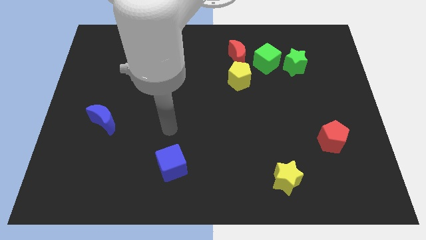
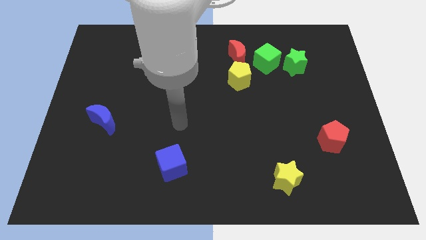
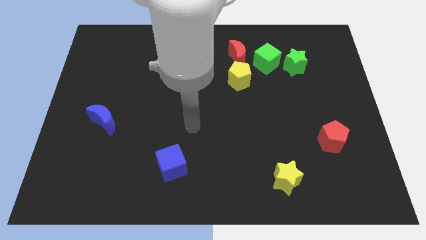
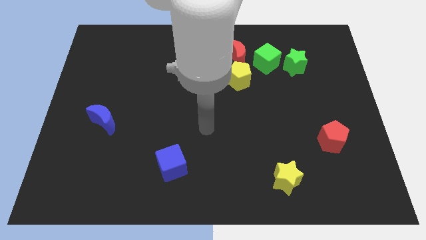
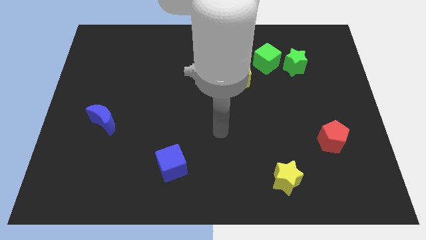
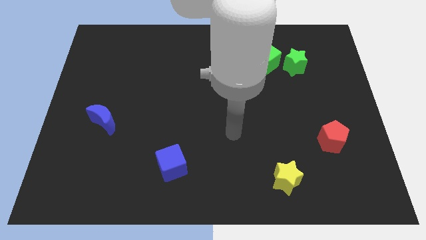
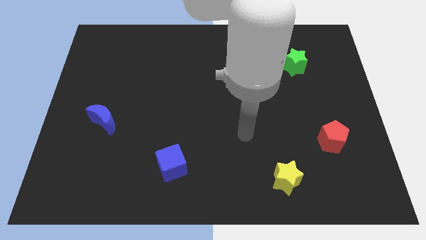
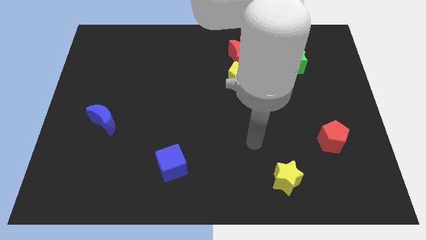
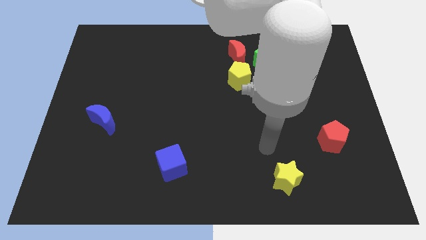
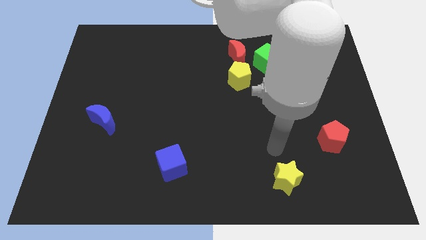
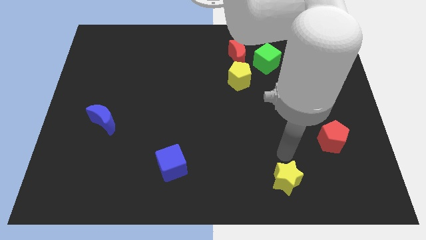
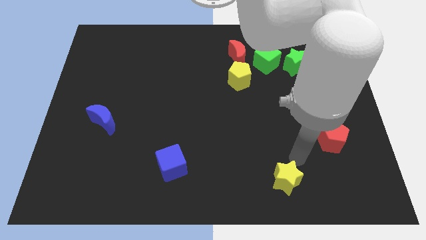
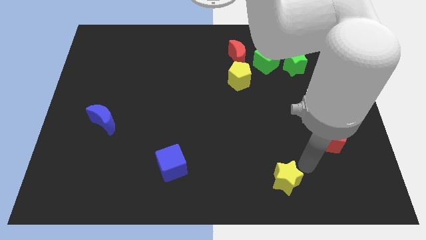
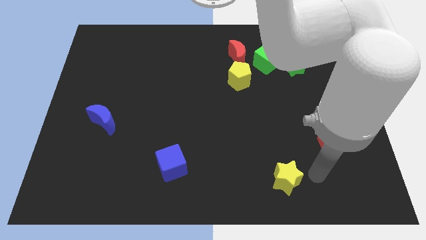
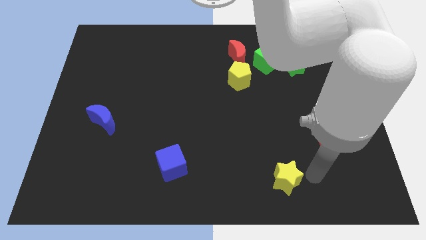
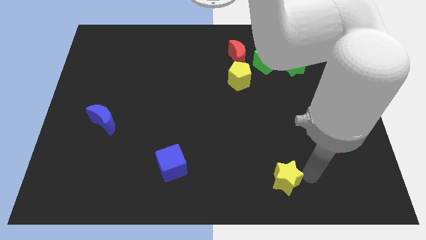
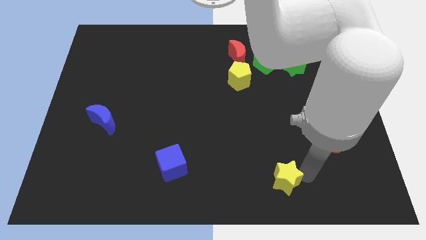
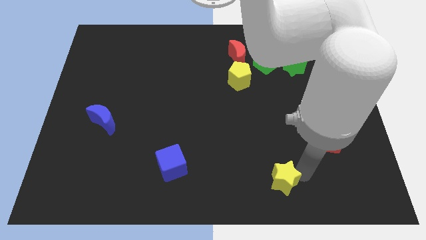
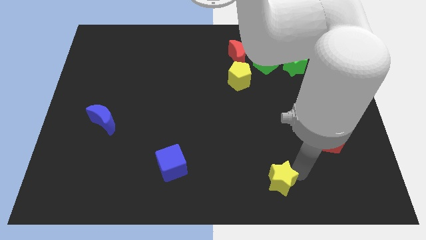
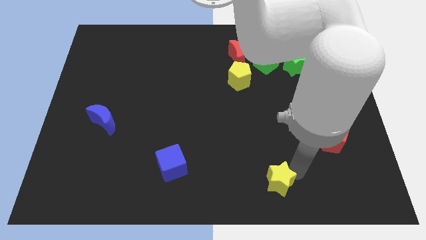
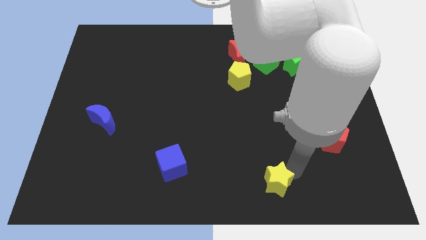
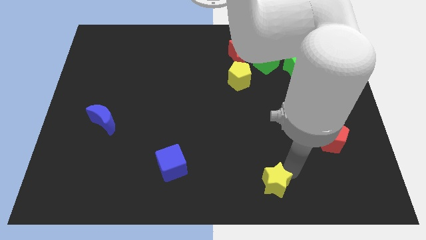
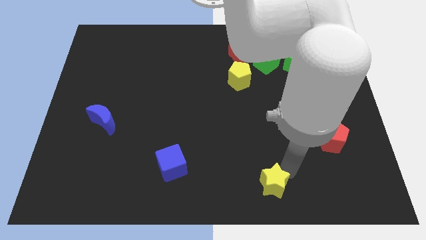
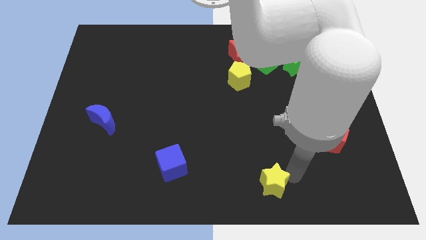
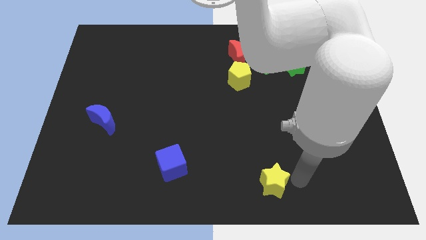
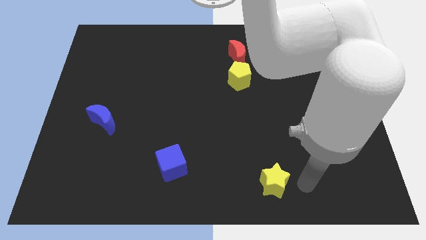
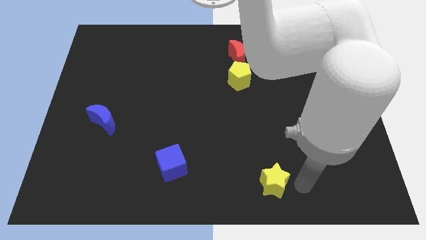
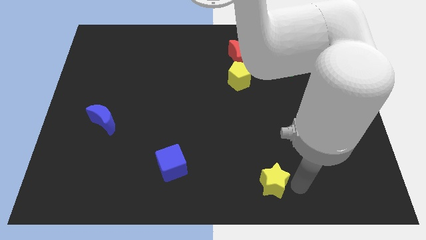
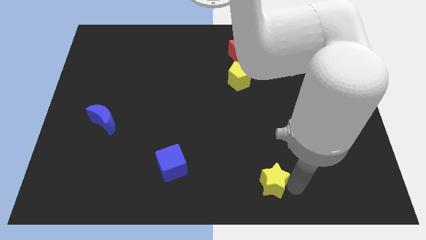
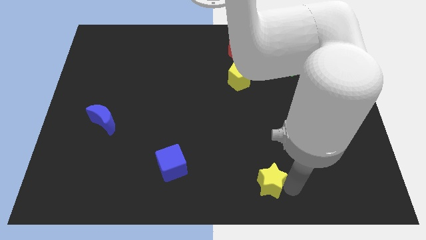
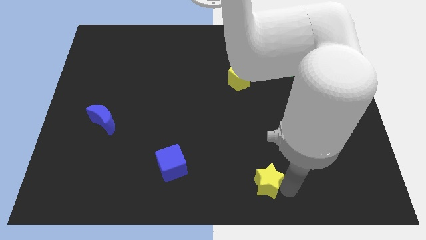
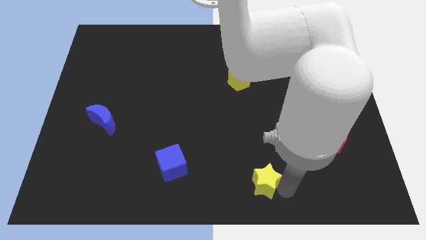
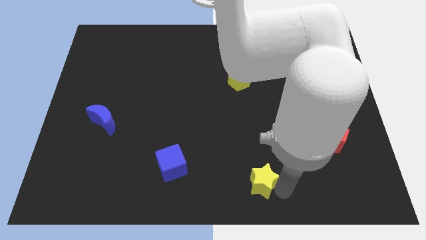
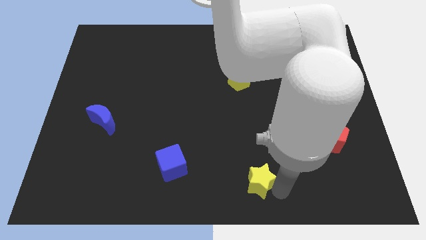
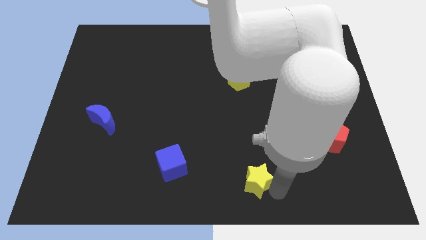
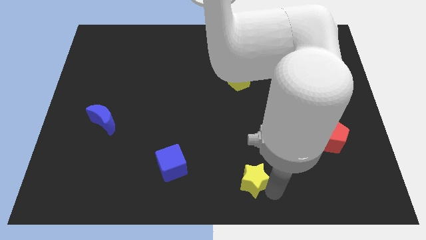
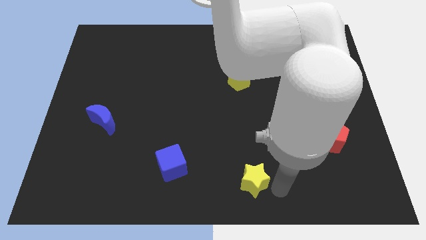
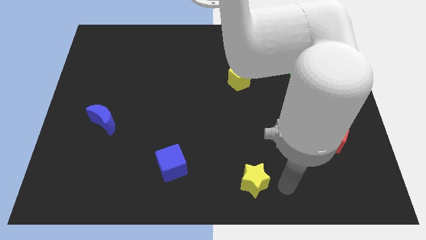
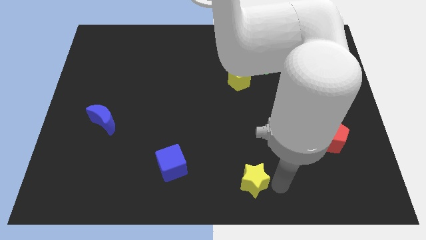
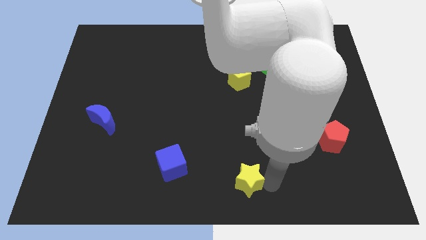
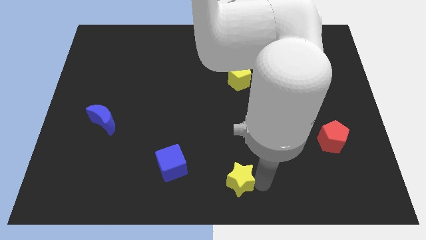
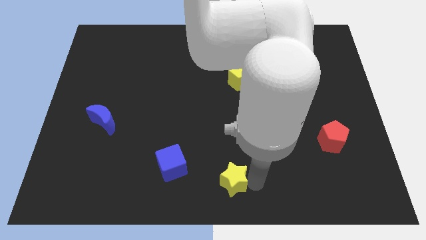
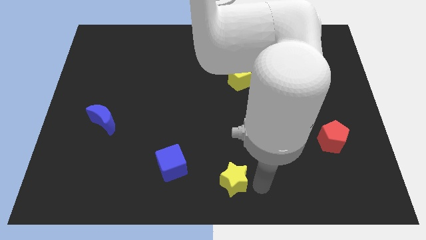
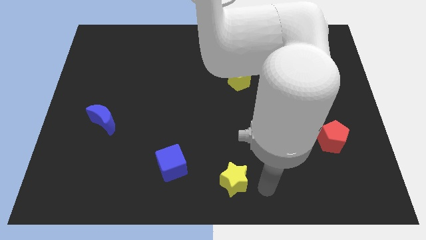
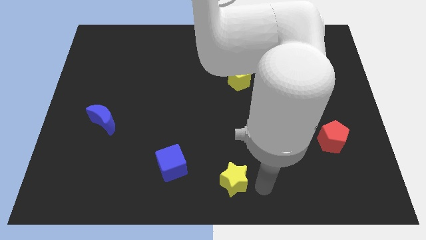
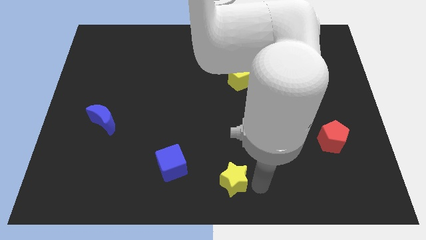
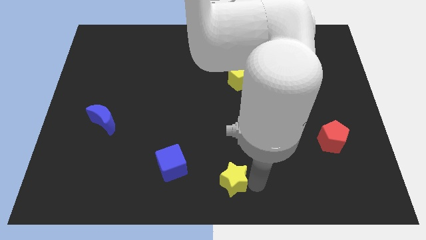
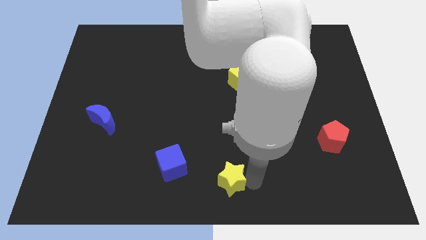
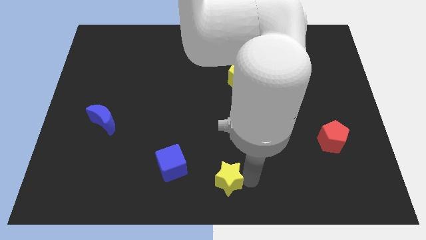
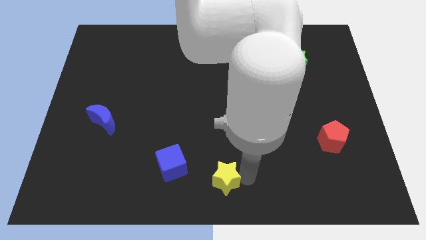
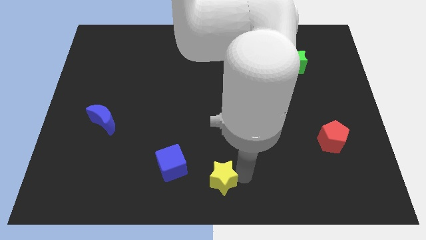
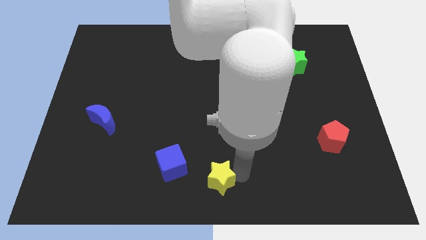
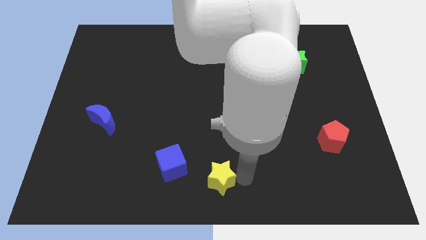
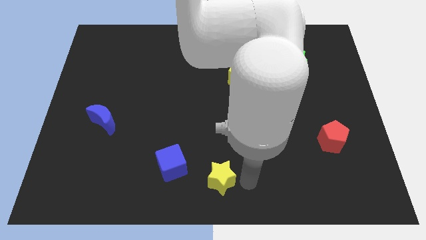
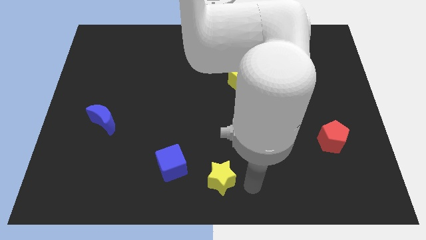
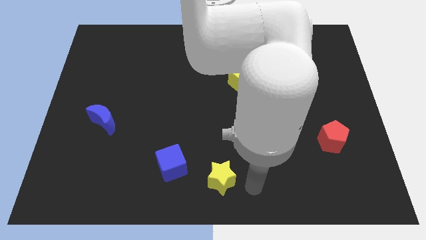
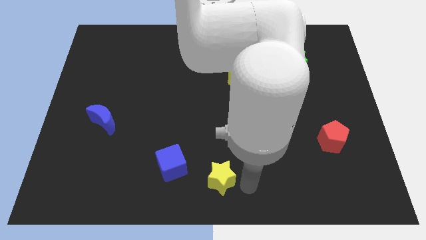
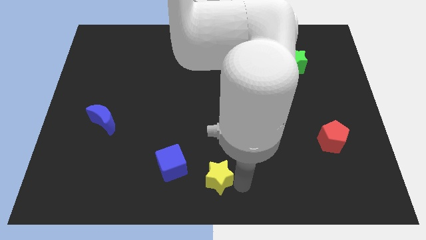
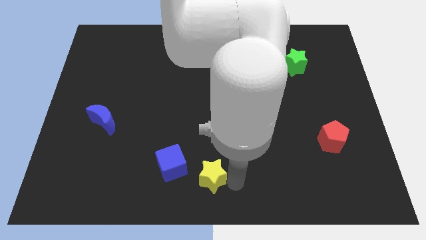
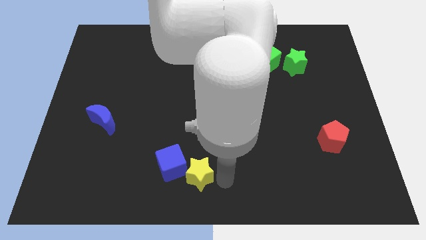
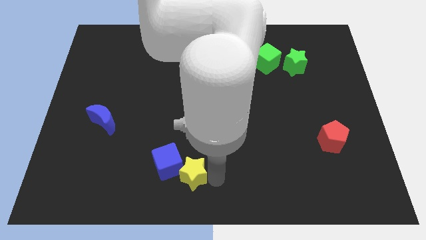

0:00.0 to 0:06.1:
put the yellow star to the blue cube
